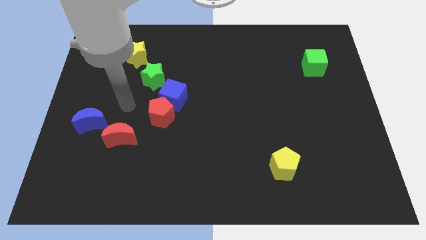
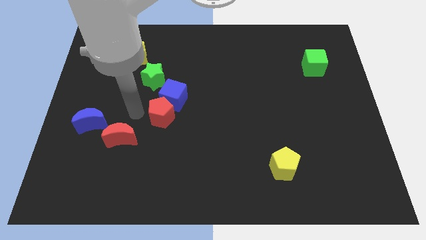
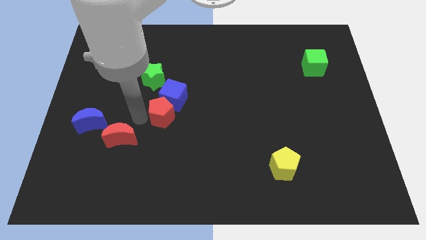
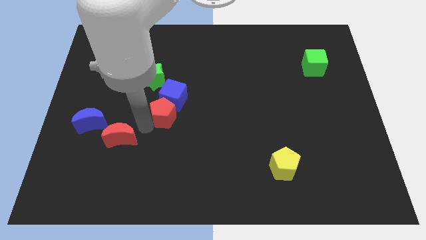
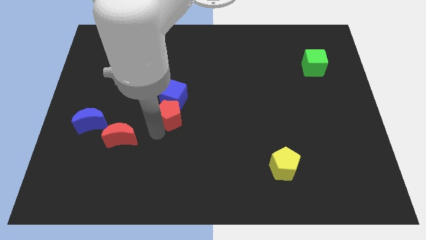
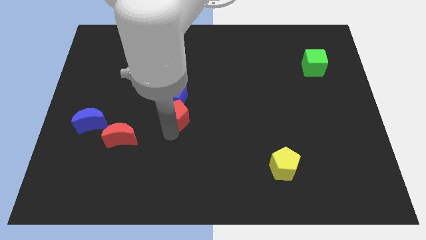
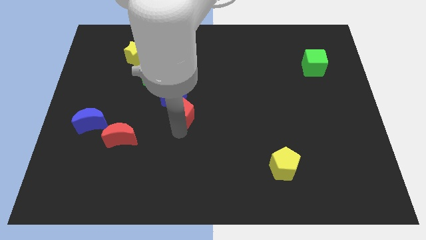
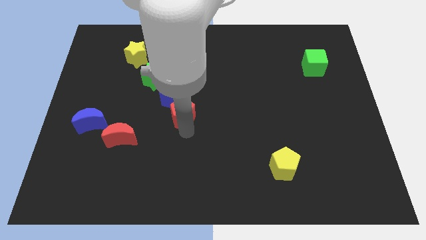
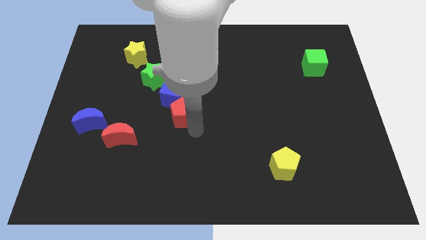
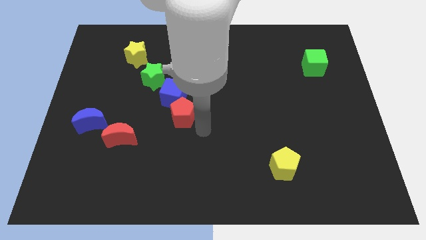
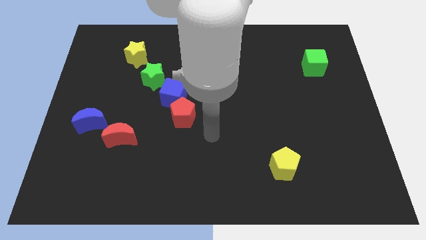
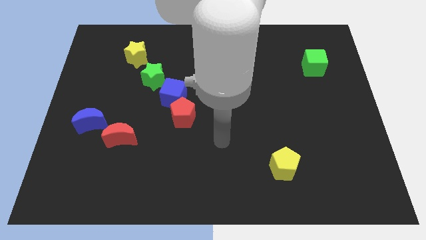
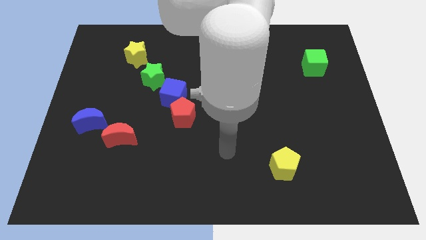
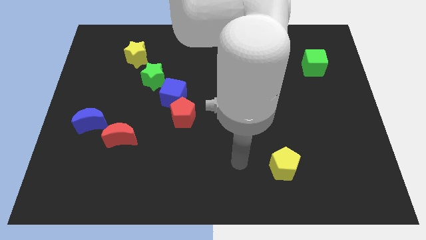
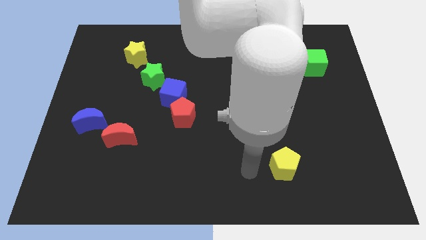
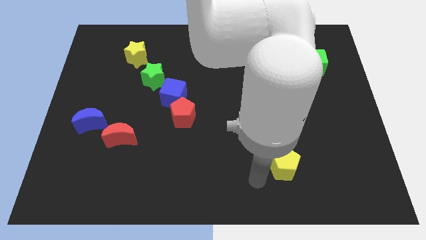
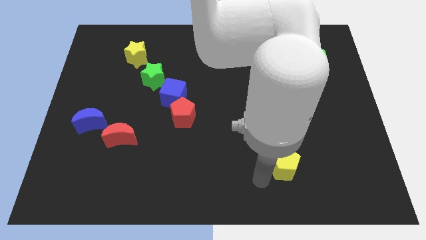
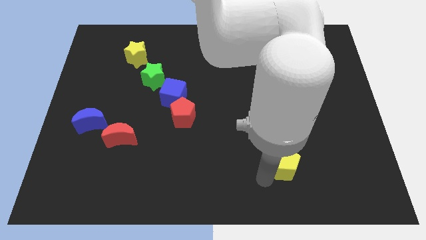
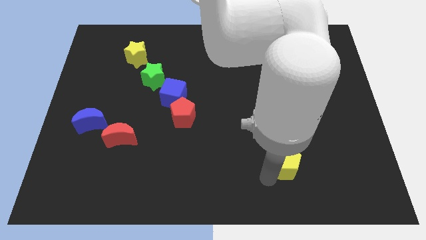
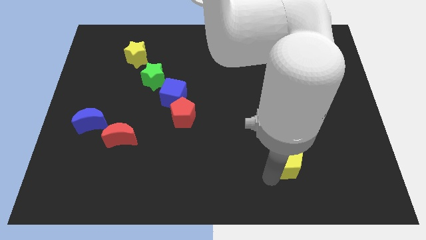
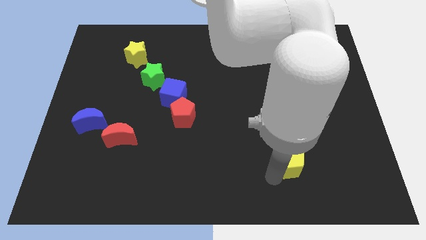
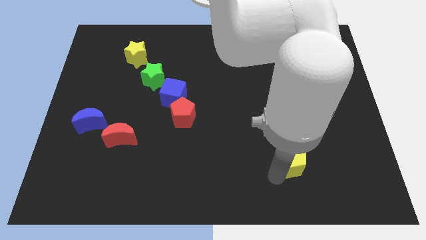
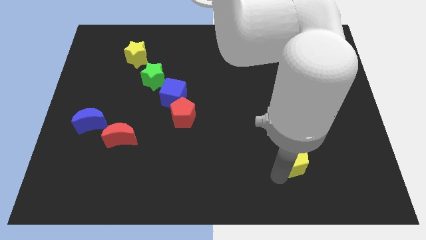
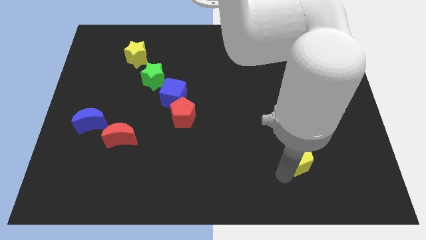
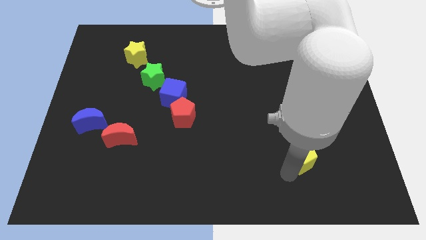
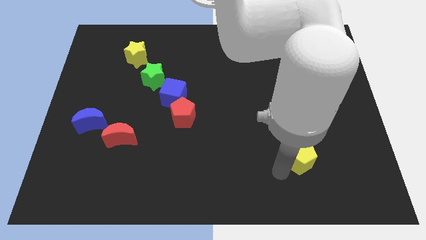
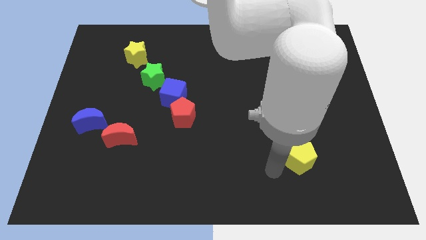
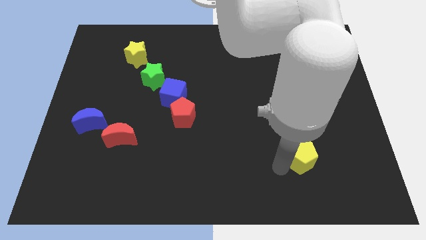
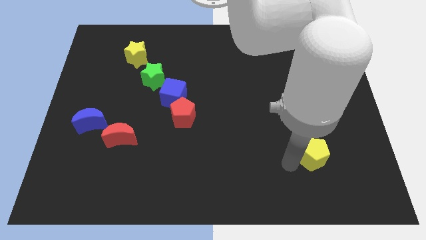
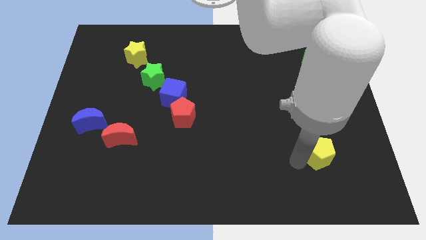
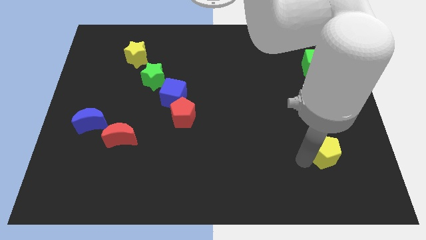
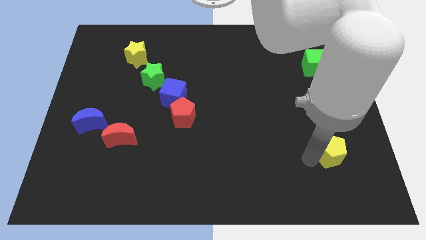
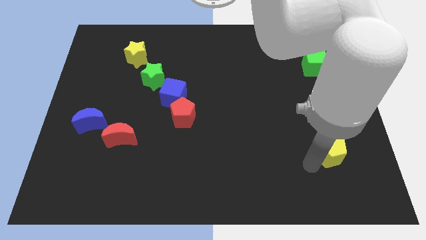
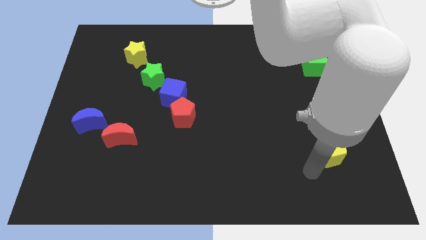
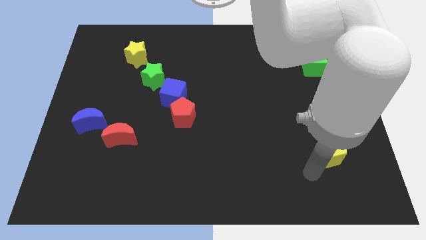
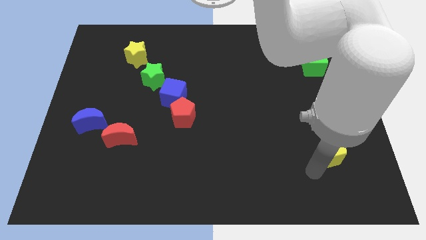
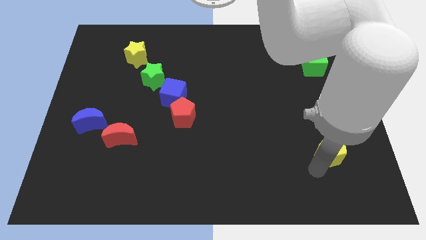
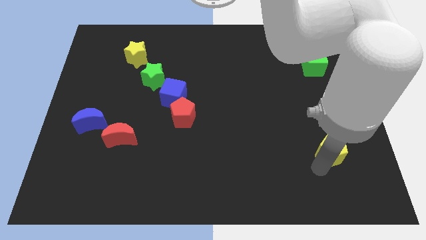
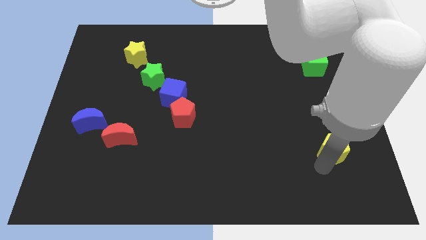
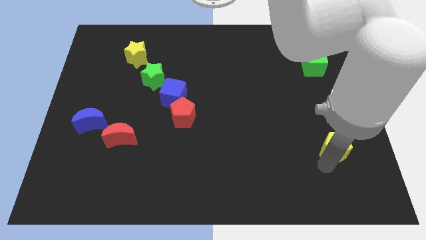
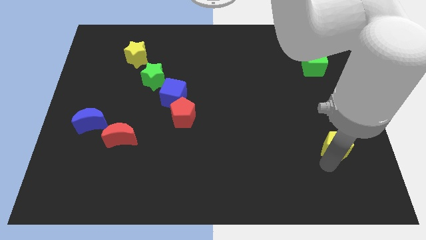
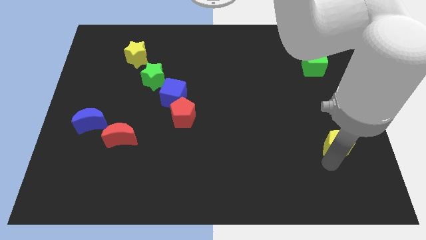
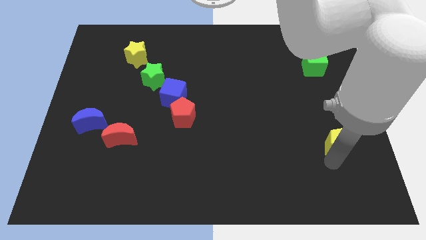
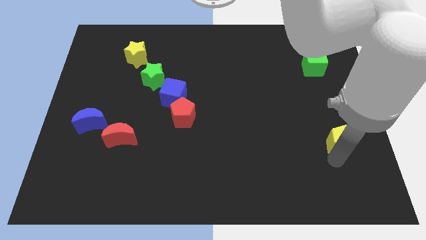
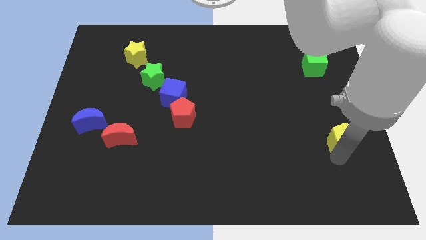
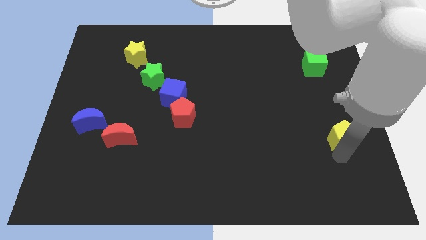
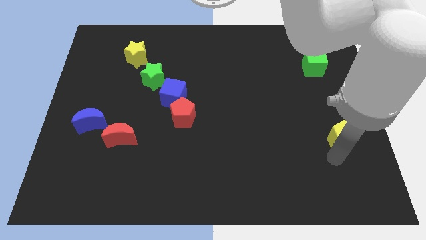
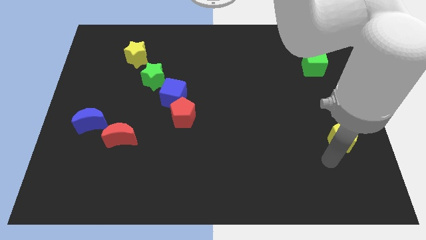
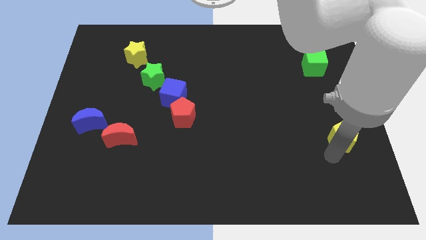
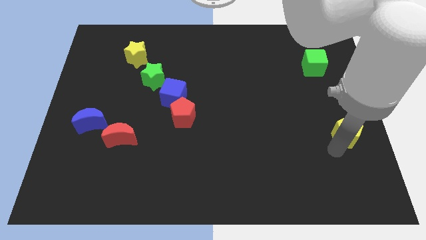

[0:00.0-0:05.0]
put the yellow pentagon to the center right

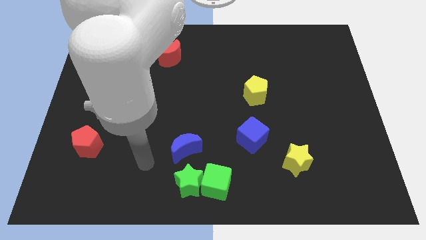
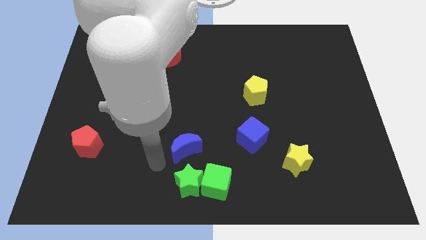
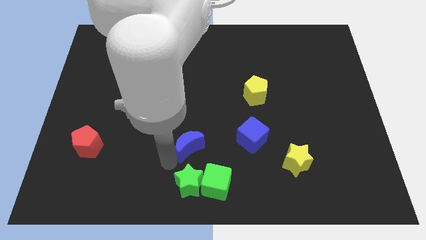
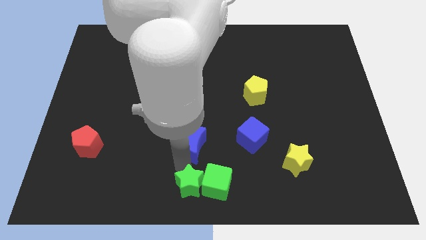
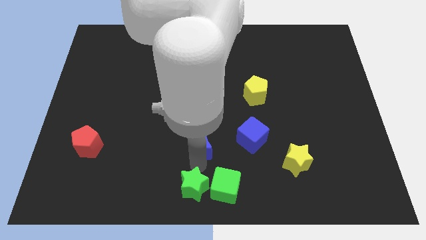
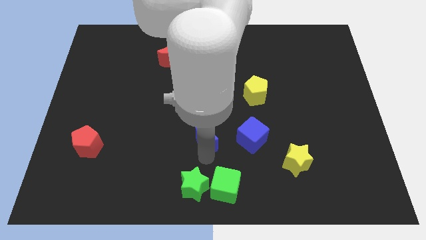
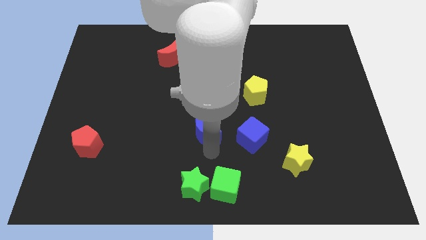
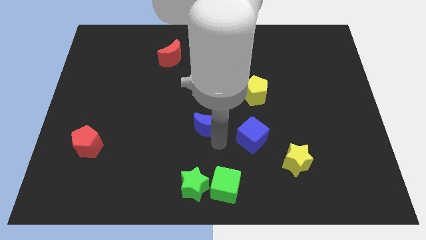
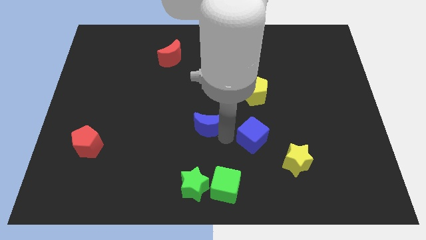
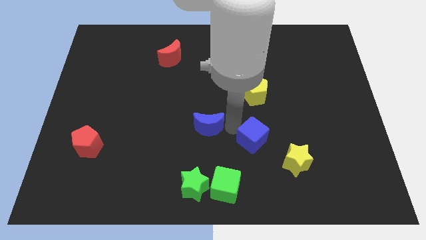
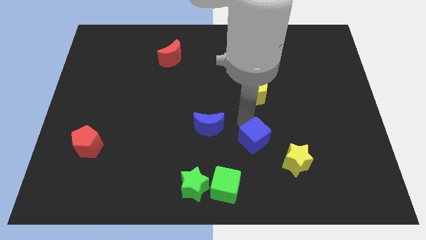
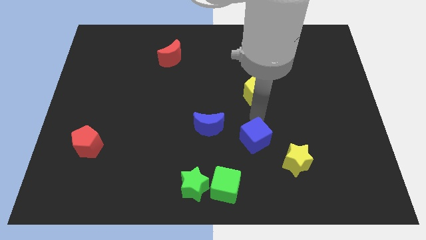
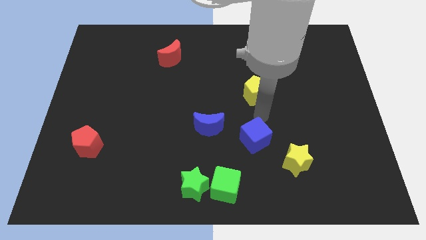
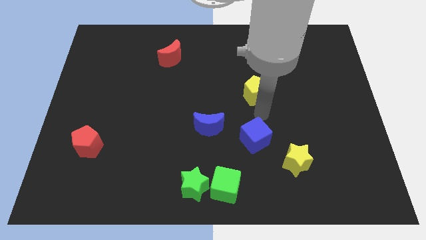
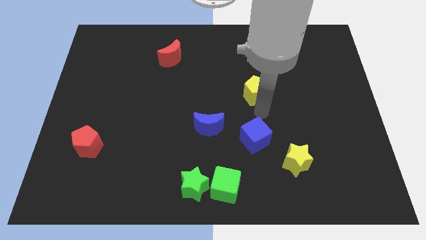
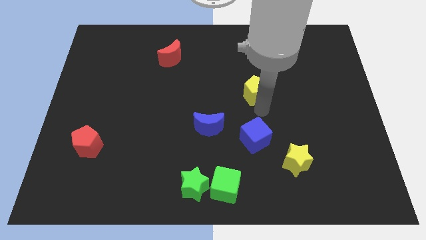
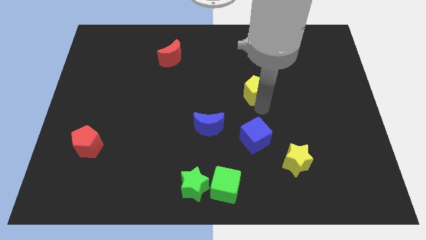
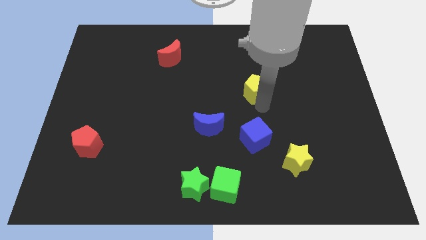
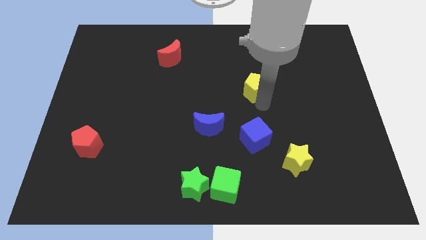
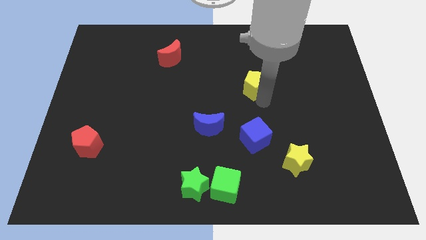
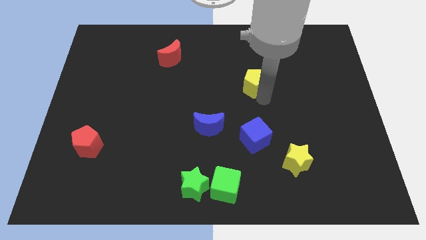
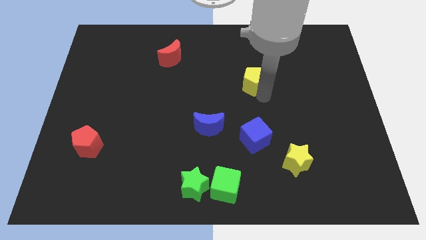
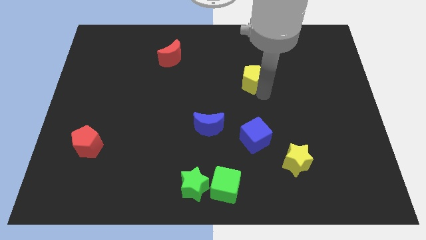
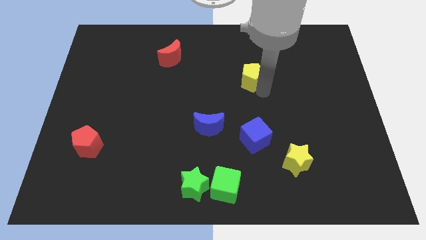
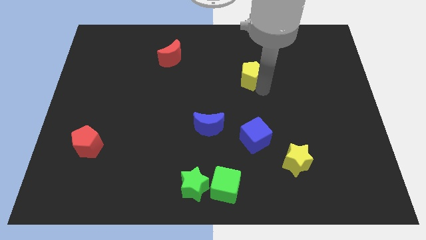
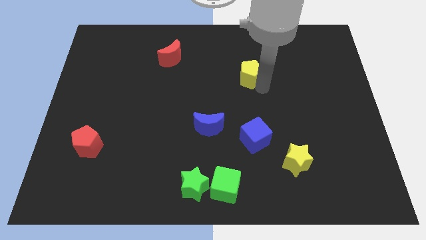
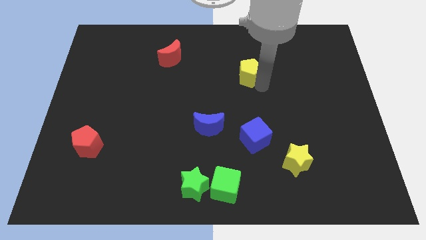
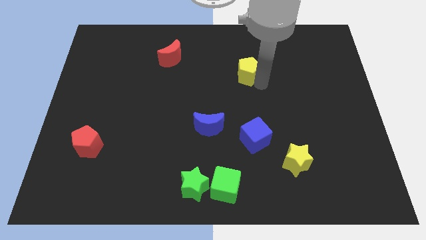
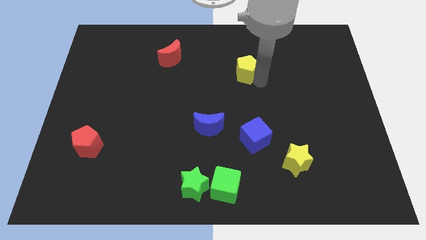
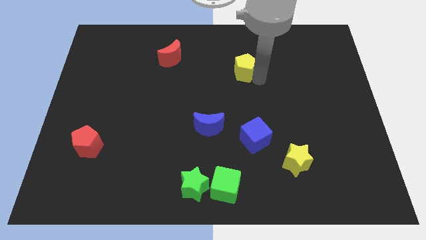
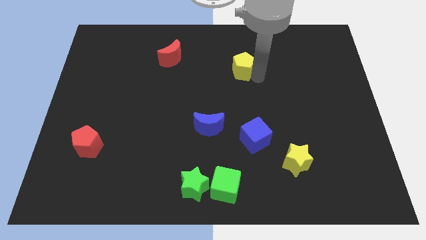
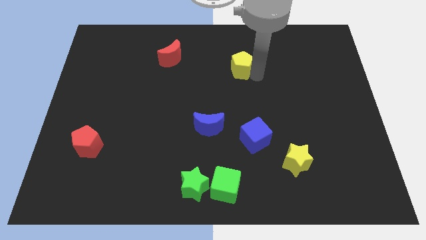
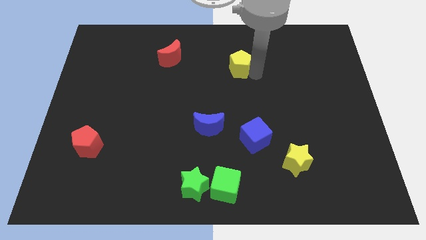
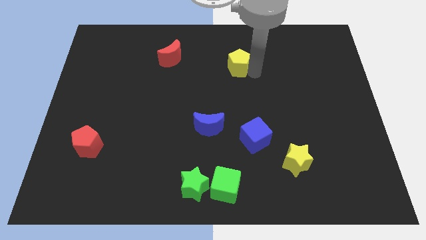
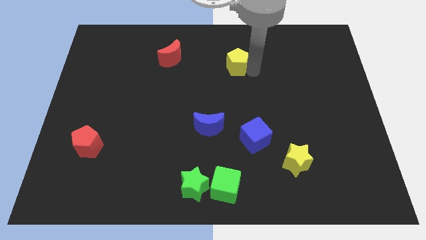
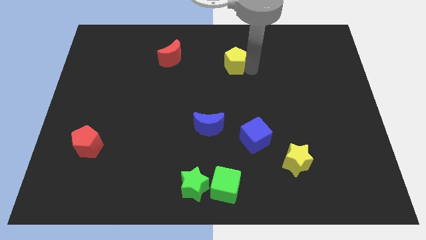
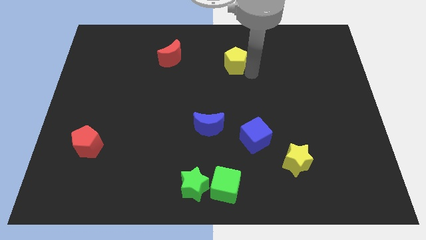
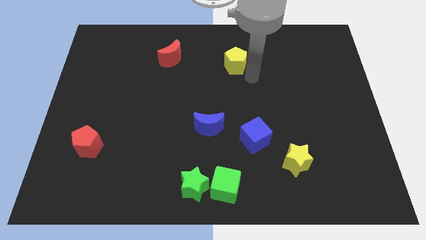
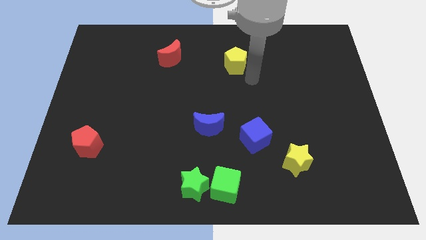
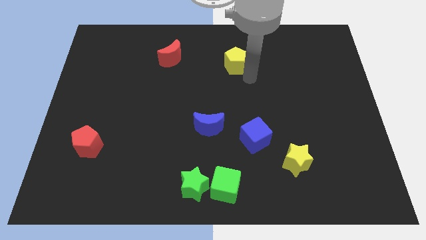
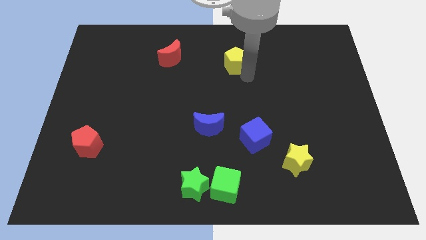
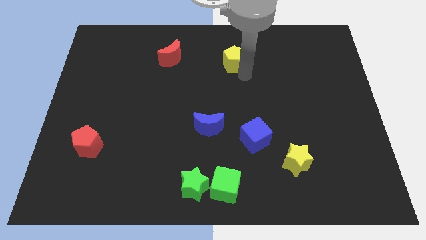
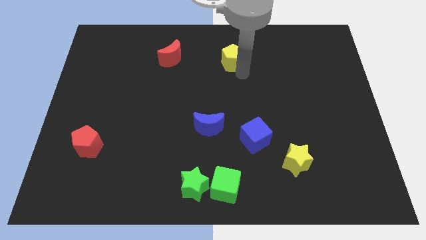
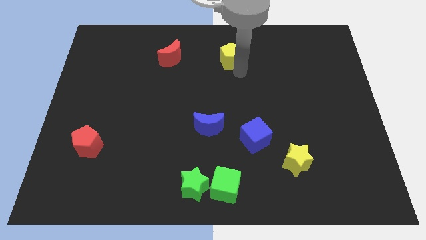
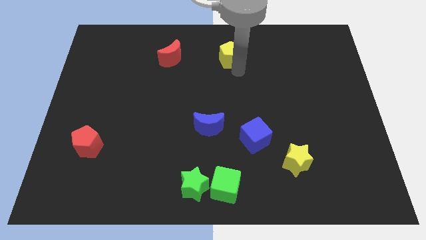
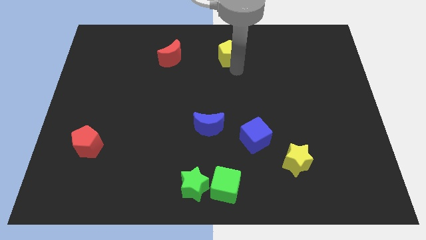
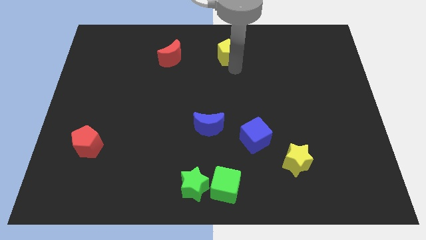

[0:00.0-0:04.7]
push the yellow pentagon to the top
